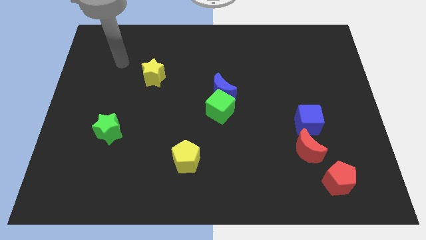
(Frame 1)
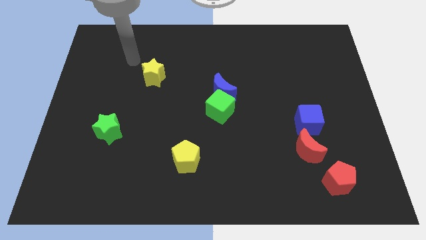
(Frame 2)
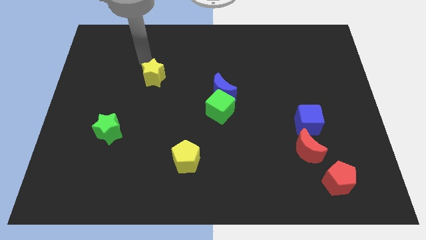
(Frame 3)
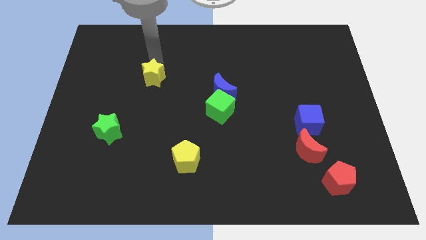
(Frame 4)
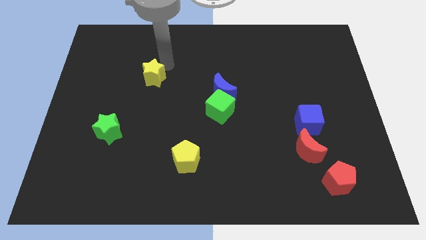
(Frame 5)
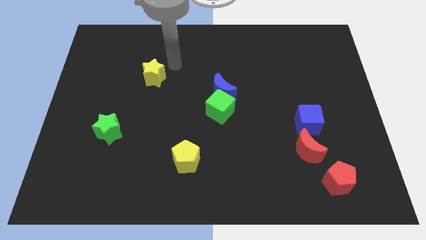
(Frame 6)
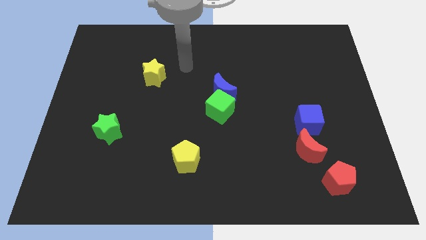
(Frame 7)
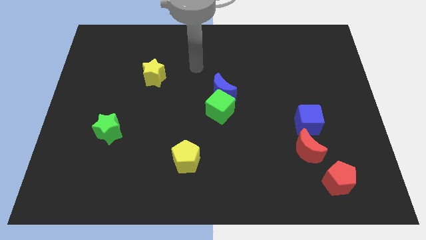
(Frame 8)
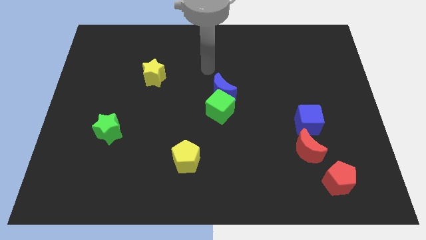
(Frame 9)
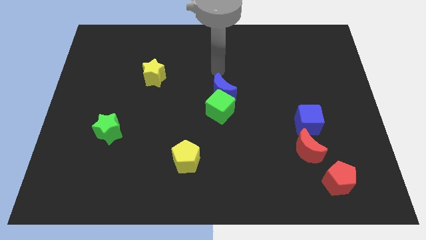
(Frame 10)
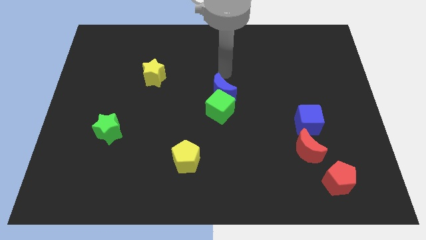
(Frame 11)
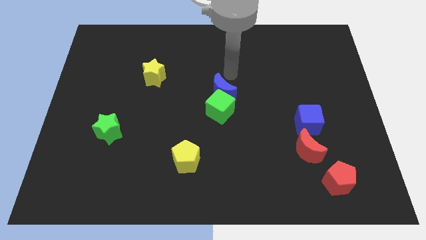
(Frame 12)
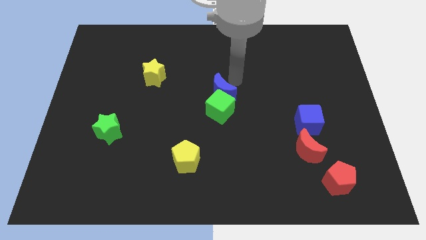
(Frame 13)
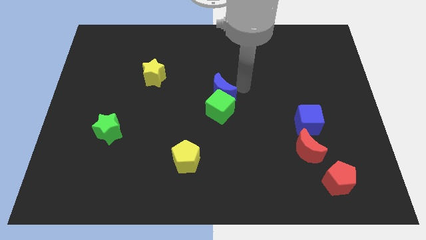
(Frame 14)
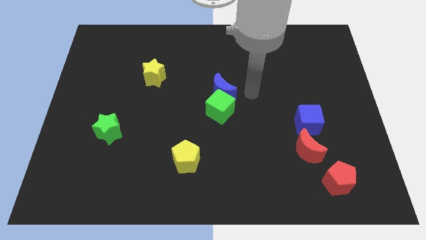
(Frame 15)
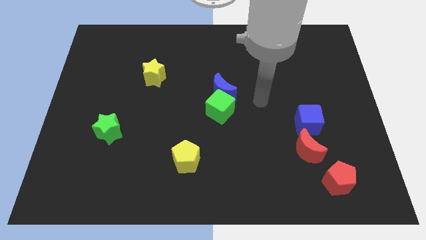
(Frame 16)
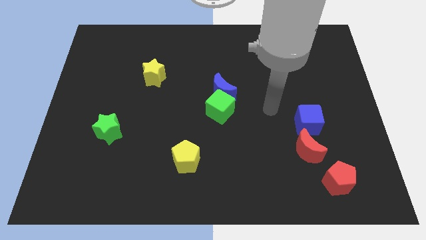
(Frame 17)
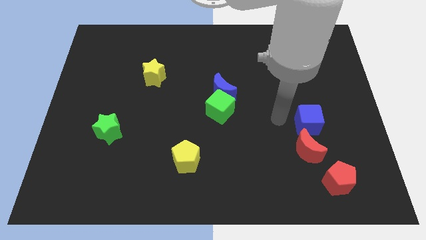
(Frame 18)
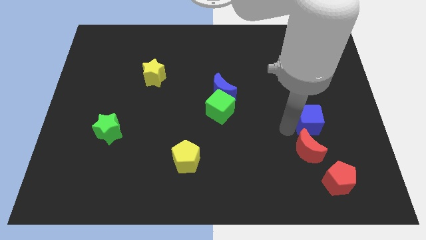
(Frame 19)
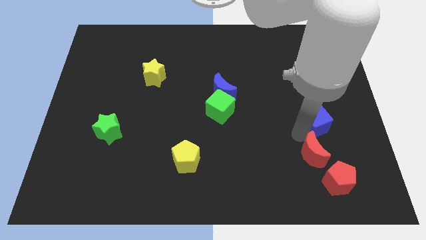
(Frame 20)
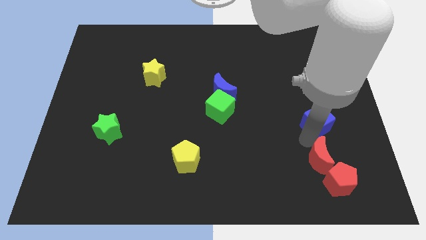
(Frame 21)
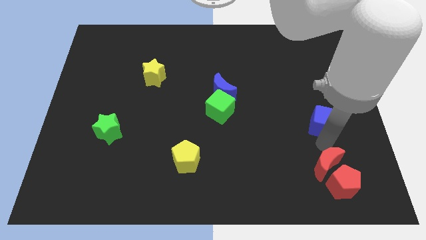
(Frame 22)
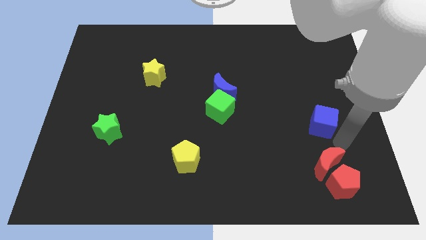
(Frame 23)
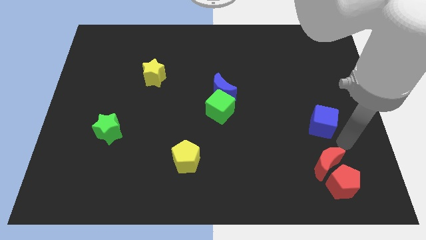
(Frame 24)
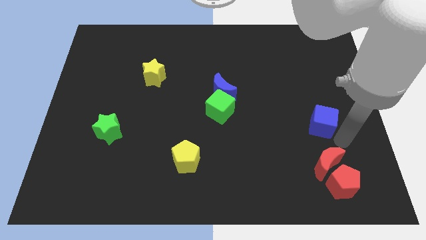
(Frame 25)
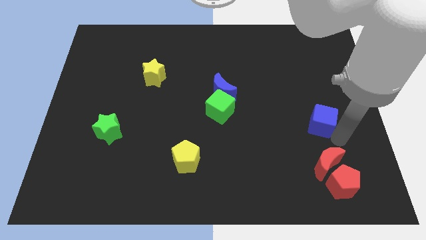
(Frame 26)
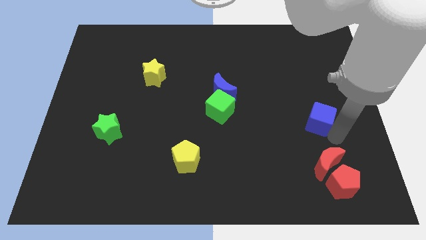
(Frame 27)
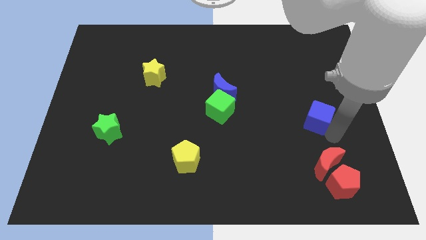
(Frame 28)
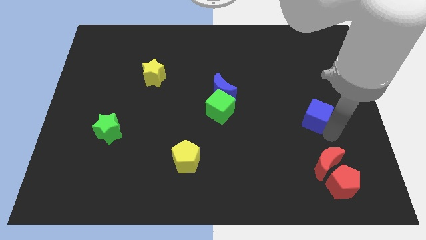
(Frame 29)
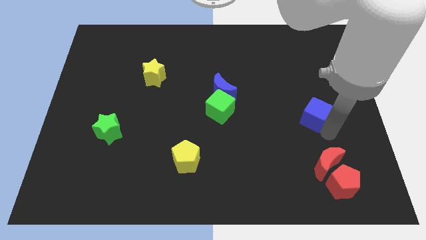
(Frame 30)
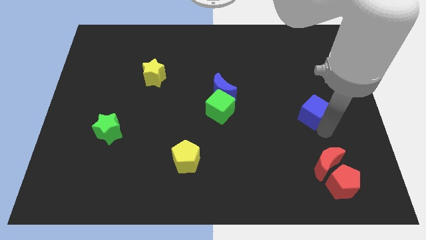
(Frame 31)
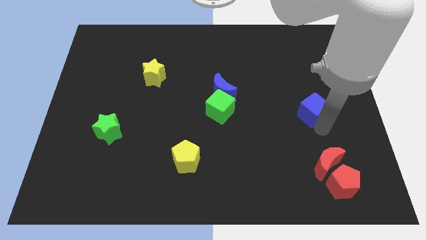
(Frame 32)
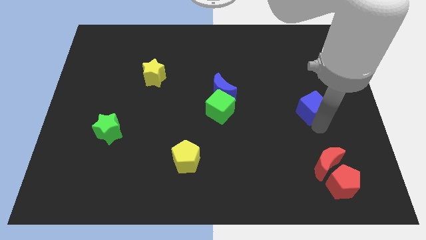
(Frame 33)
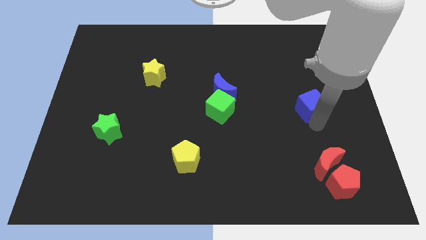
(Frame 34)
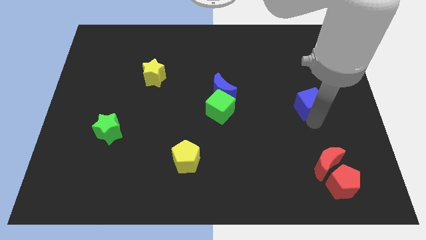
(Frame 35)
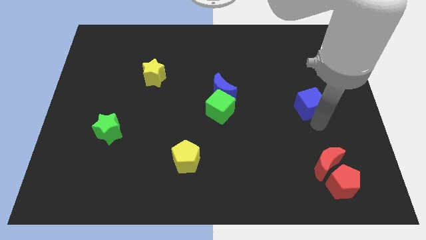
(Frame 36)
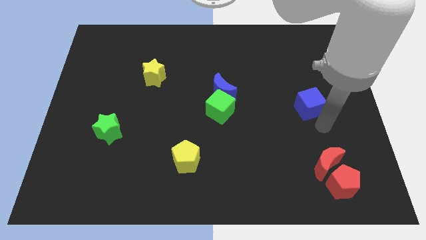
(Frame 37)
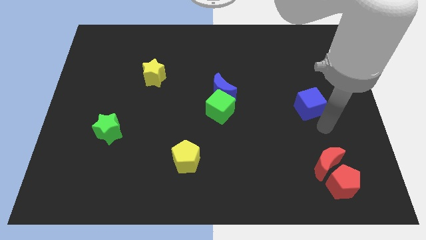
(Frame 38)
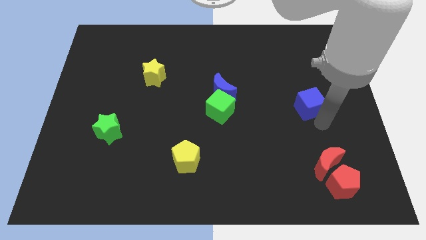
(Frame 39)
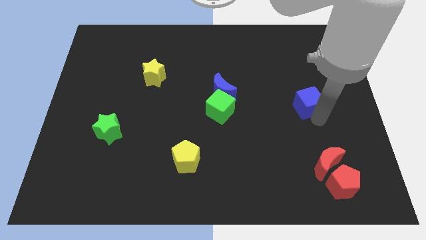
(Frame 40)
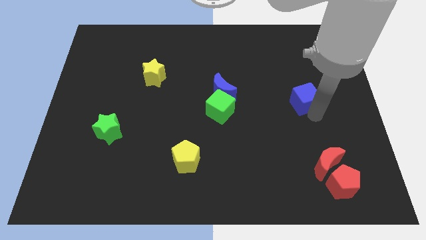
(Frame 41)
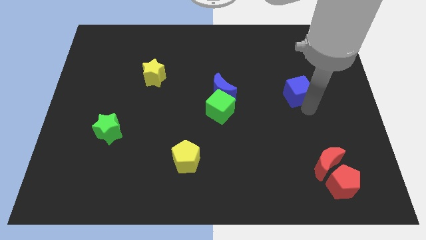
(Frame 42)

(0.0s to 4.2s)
push the blue cube slightly up

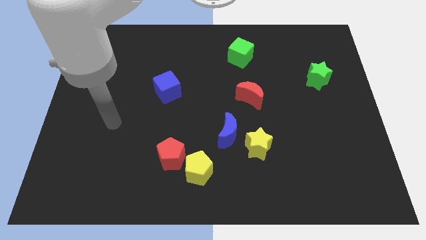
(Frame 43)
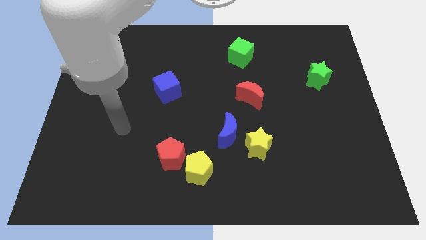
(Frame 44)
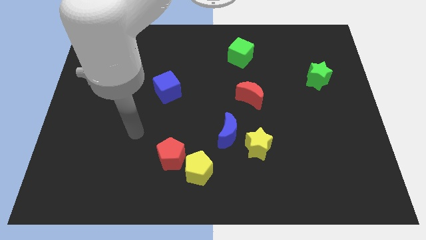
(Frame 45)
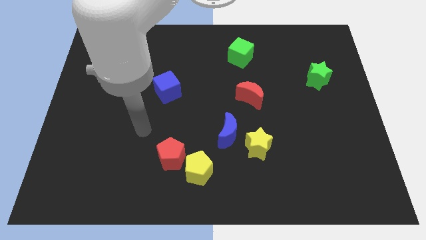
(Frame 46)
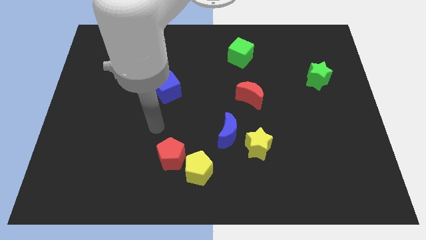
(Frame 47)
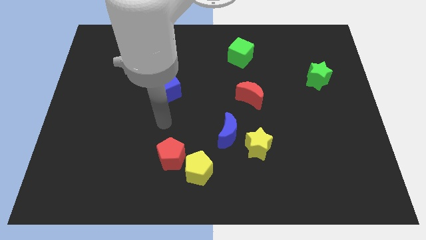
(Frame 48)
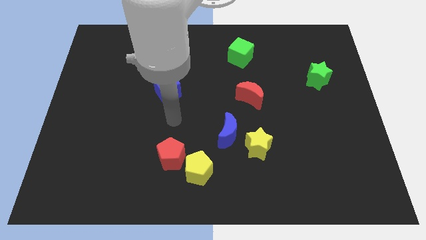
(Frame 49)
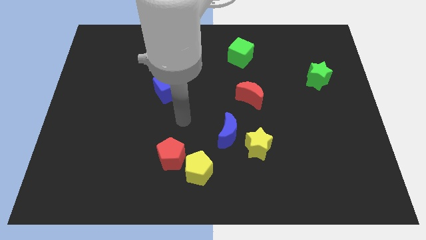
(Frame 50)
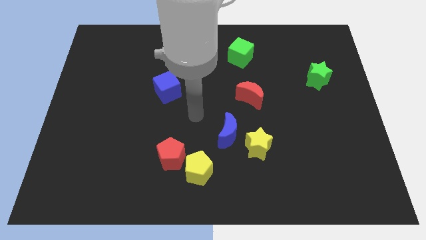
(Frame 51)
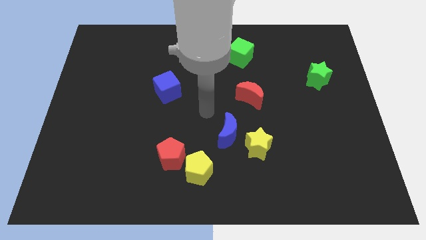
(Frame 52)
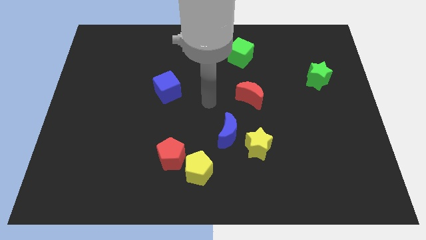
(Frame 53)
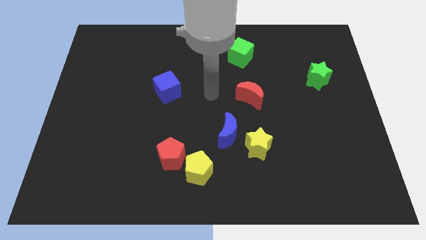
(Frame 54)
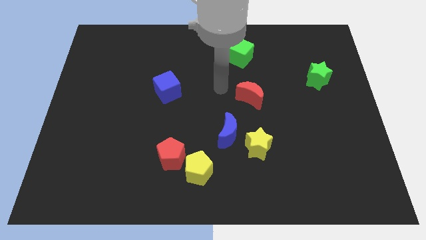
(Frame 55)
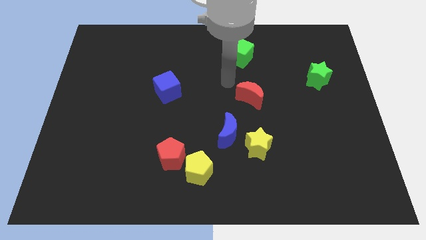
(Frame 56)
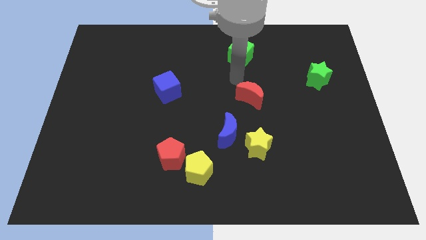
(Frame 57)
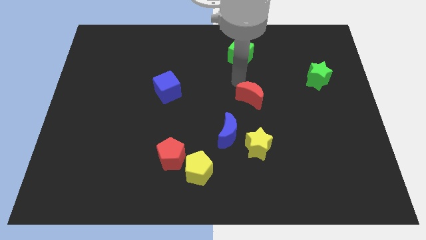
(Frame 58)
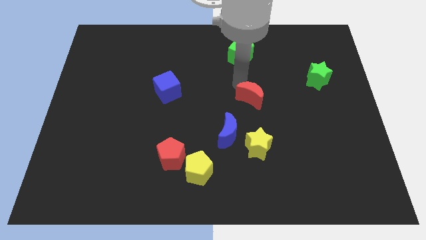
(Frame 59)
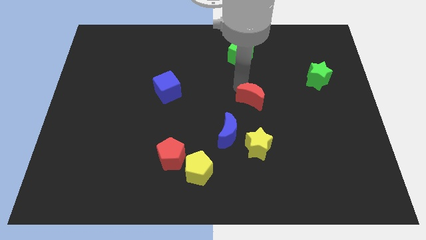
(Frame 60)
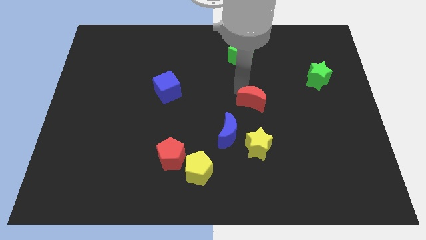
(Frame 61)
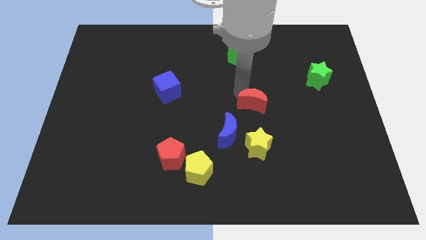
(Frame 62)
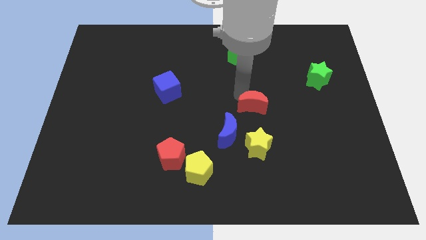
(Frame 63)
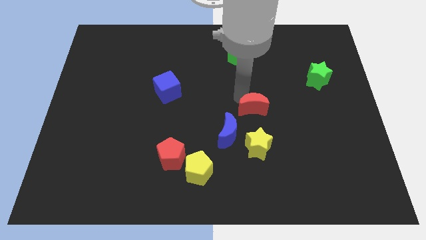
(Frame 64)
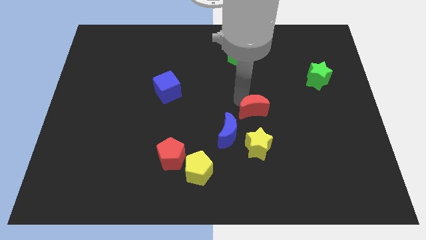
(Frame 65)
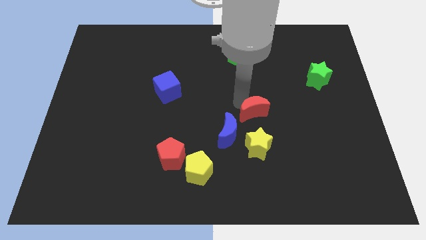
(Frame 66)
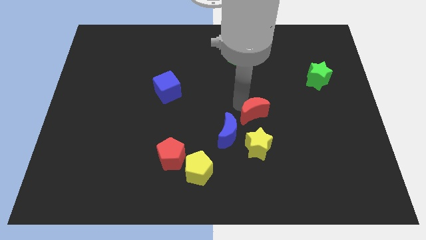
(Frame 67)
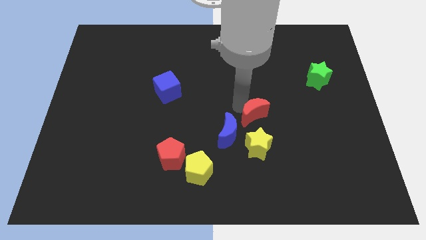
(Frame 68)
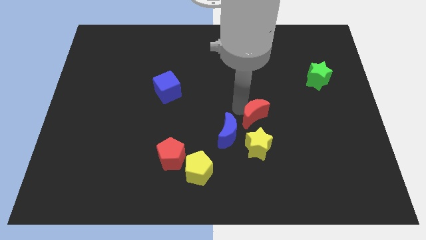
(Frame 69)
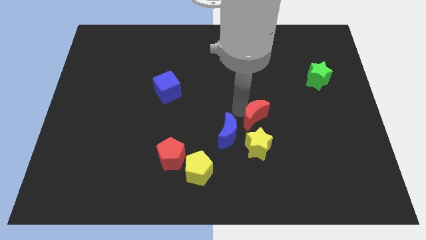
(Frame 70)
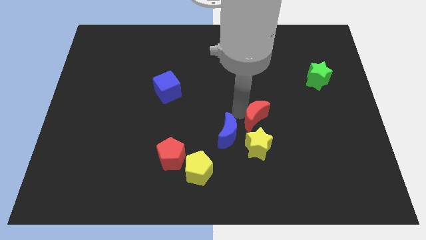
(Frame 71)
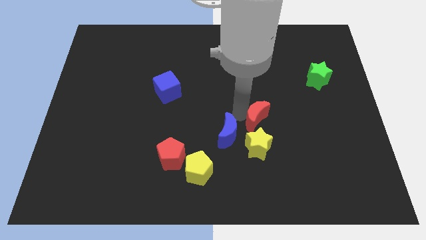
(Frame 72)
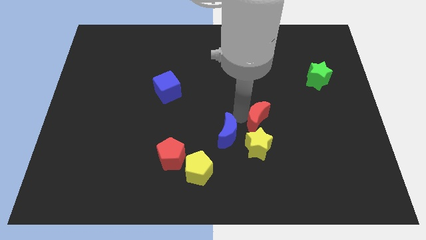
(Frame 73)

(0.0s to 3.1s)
push the red moon down somewhat

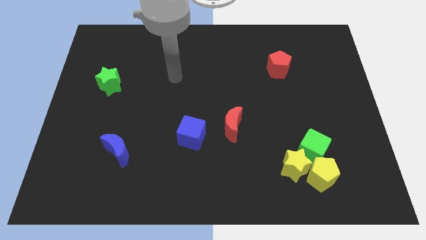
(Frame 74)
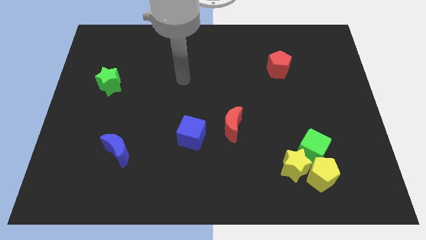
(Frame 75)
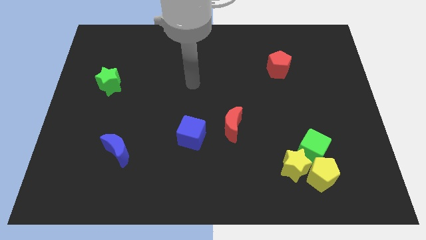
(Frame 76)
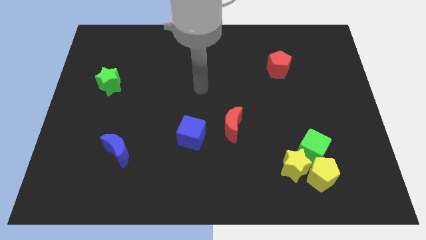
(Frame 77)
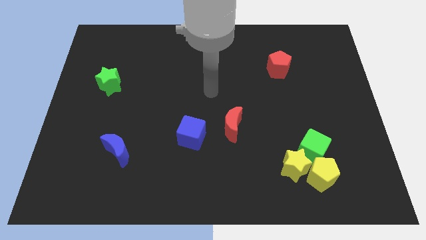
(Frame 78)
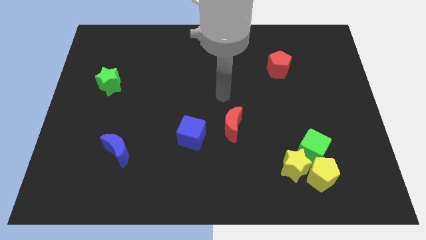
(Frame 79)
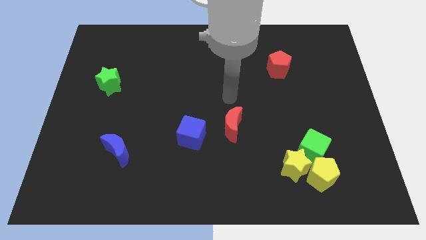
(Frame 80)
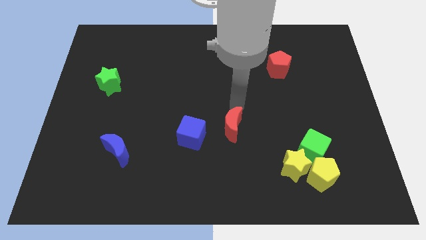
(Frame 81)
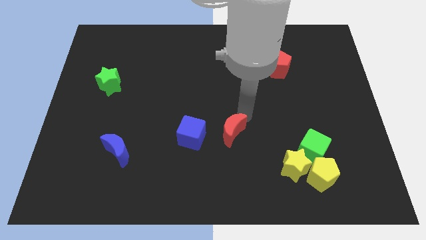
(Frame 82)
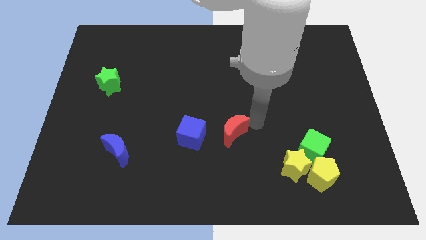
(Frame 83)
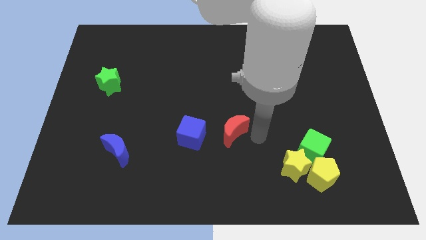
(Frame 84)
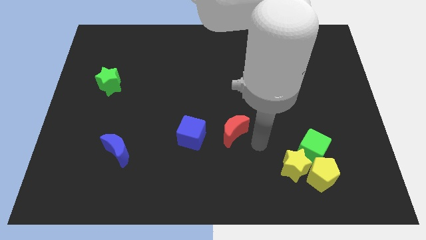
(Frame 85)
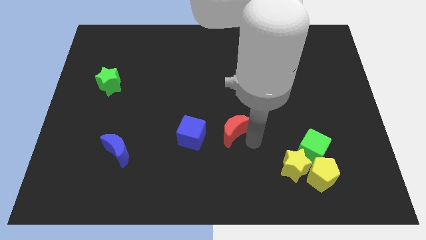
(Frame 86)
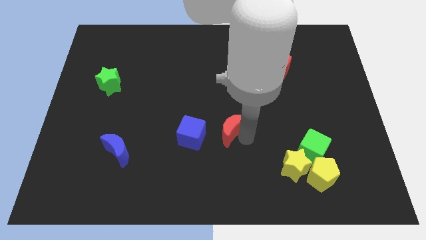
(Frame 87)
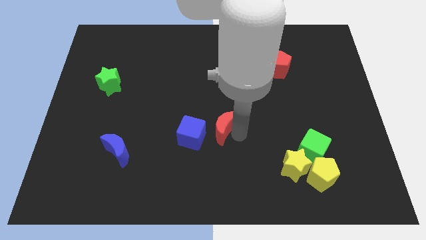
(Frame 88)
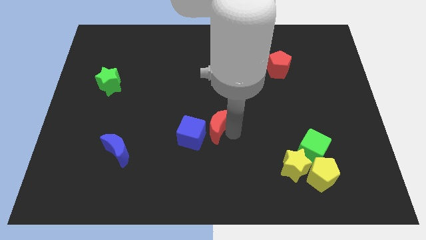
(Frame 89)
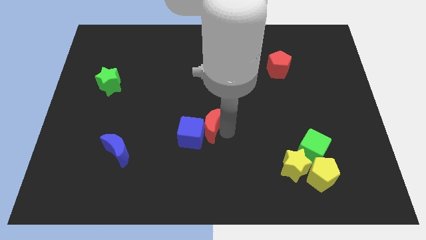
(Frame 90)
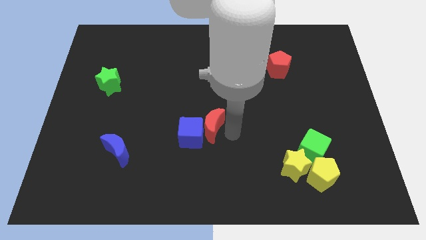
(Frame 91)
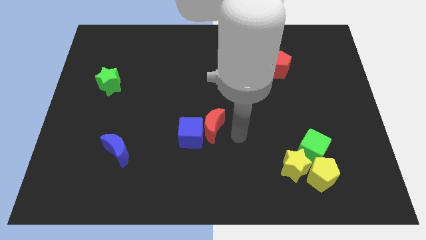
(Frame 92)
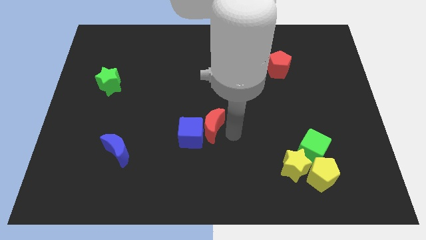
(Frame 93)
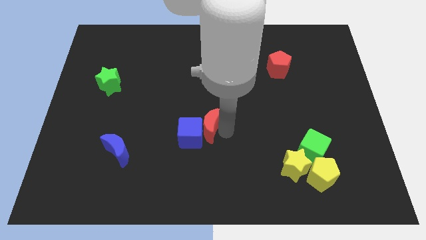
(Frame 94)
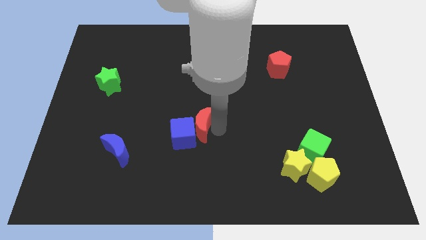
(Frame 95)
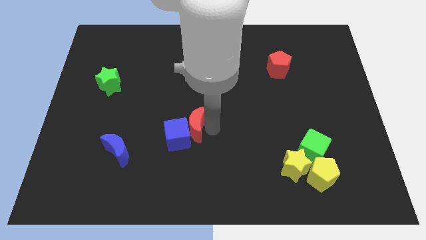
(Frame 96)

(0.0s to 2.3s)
slightly move the red moon to the left
